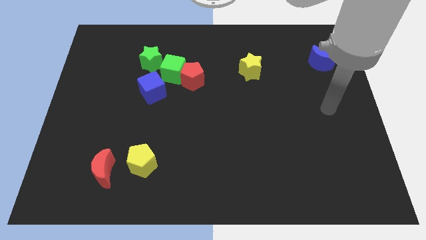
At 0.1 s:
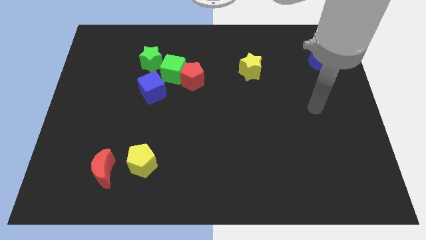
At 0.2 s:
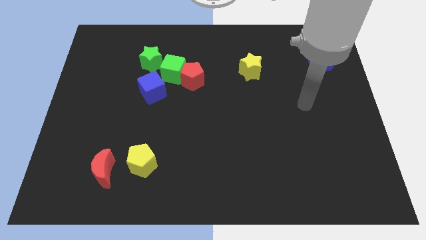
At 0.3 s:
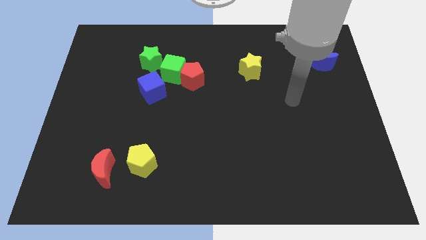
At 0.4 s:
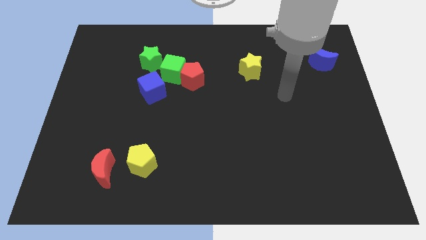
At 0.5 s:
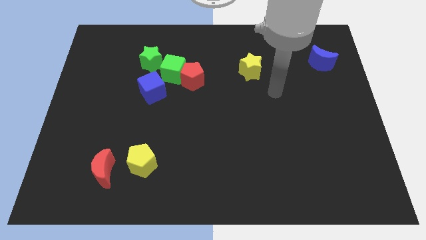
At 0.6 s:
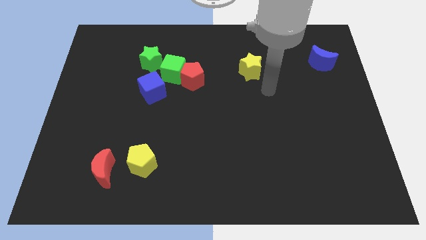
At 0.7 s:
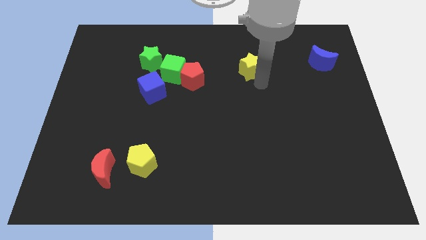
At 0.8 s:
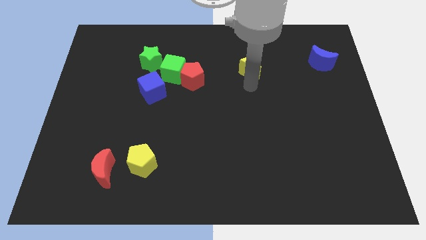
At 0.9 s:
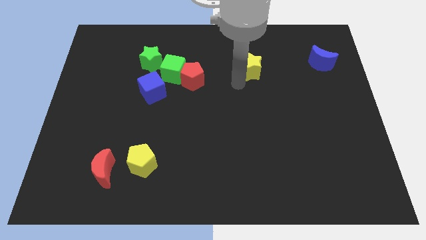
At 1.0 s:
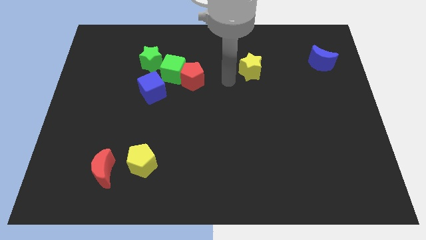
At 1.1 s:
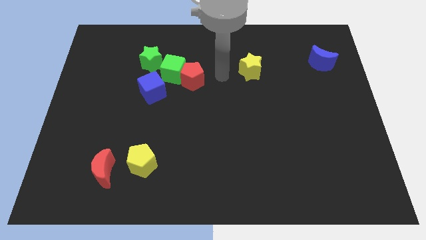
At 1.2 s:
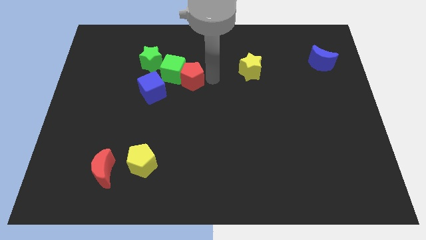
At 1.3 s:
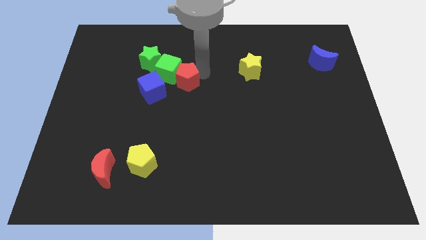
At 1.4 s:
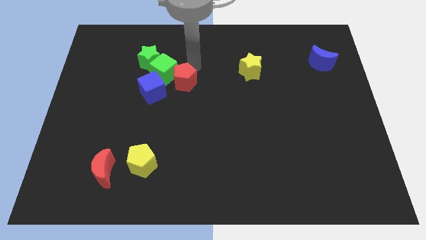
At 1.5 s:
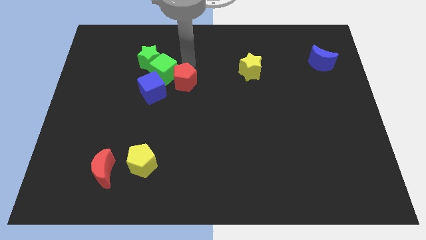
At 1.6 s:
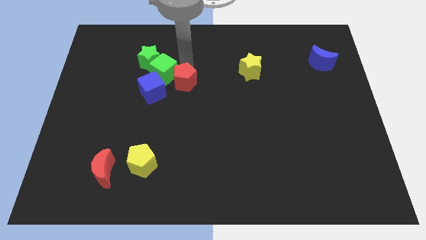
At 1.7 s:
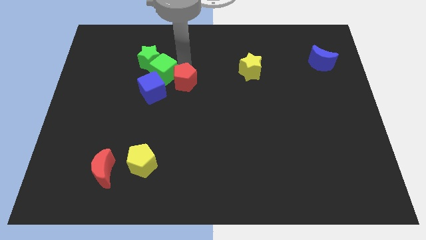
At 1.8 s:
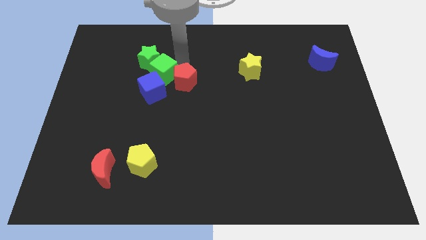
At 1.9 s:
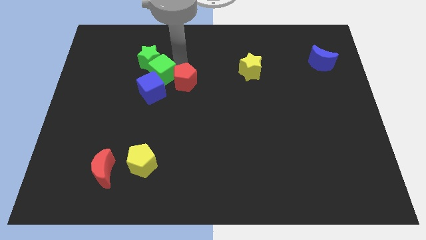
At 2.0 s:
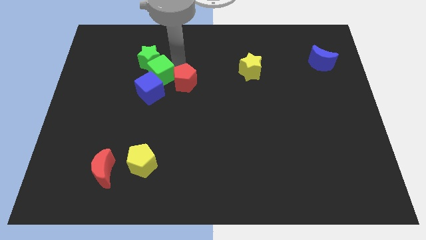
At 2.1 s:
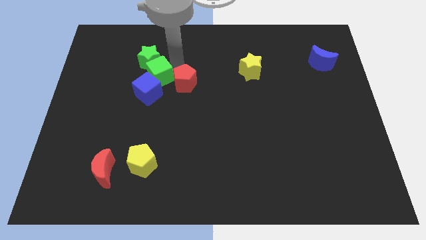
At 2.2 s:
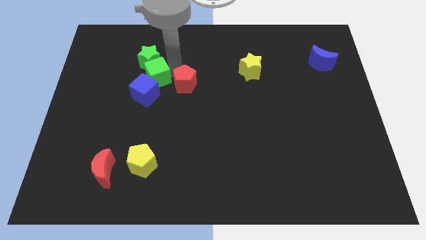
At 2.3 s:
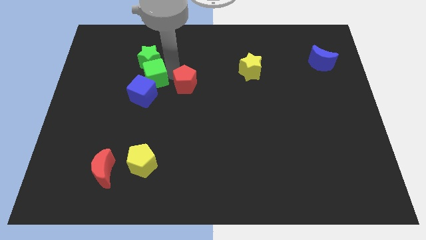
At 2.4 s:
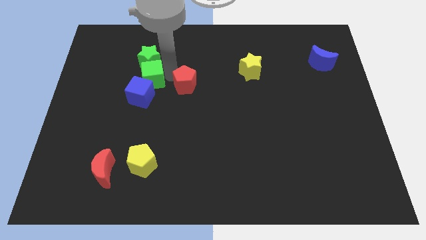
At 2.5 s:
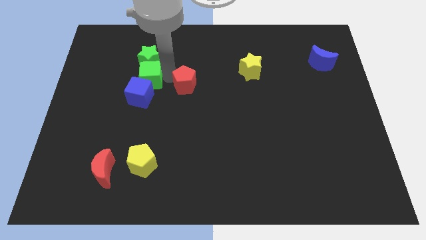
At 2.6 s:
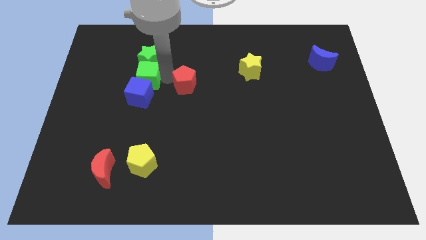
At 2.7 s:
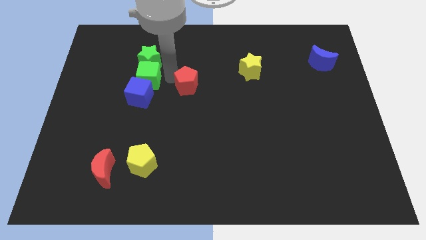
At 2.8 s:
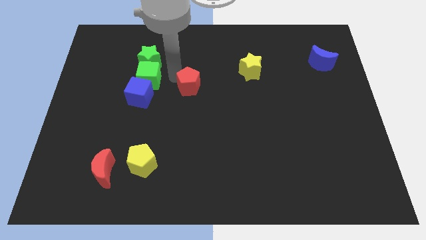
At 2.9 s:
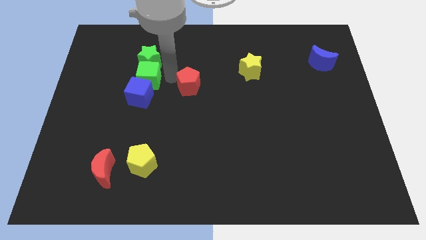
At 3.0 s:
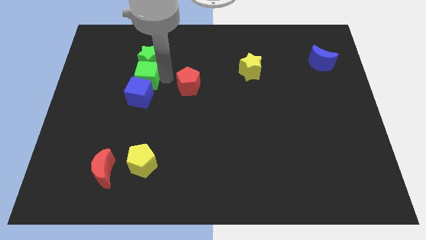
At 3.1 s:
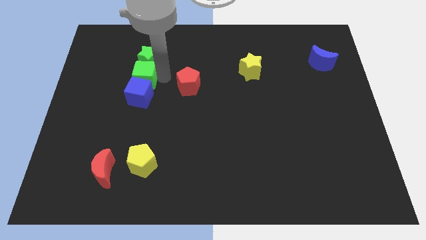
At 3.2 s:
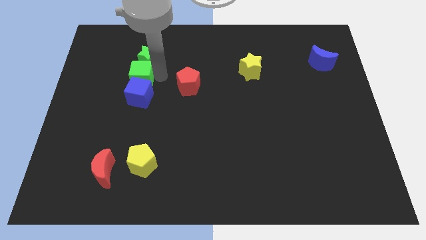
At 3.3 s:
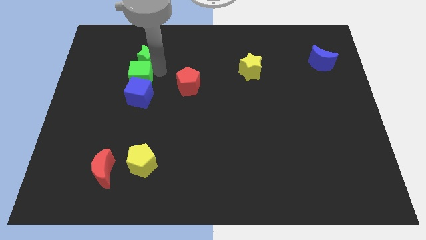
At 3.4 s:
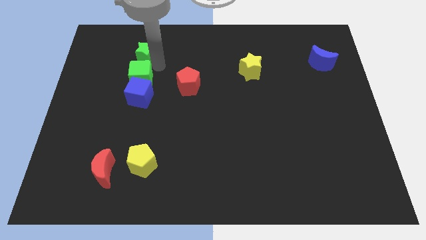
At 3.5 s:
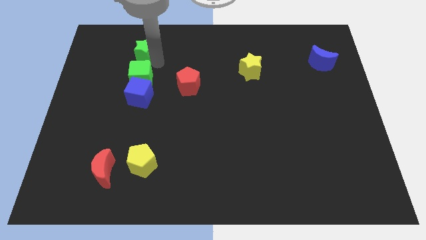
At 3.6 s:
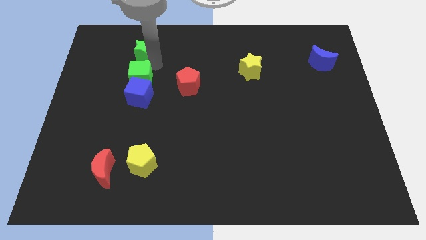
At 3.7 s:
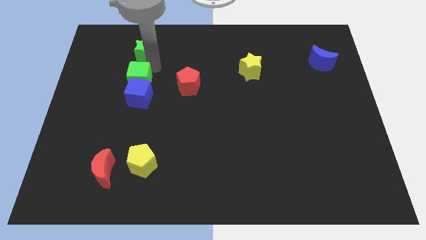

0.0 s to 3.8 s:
push the green cube a bit downwards and to the left diagonally

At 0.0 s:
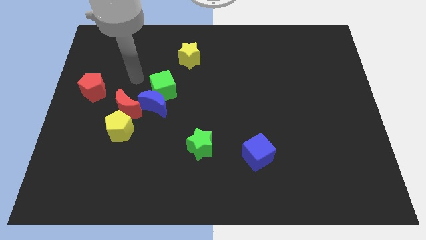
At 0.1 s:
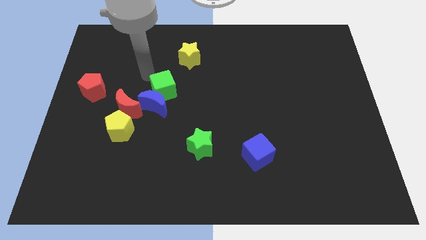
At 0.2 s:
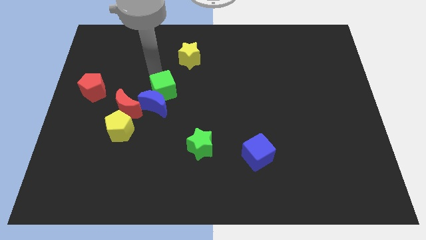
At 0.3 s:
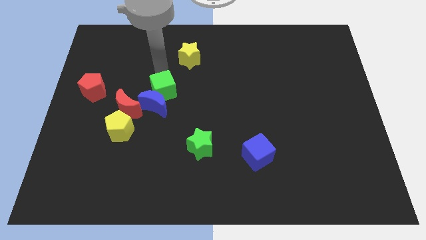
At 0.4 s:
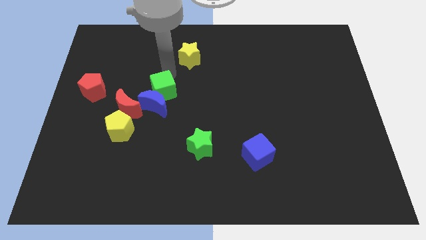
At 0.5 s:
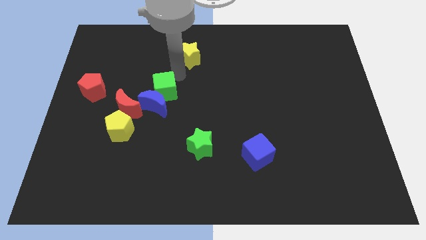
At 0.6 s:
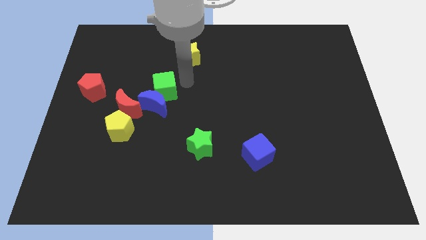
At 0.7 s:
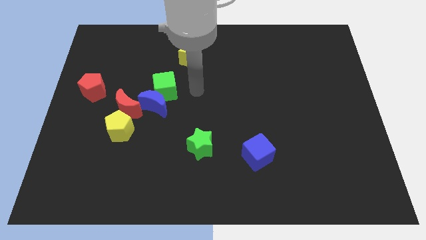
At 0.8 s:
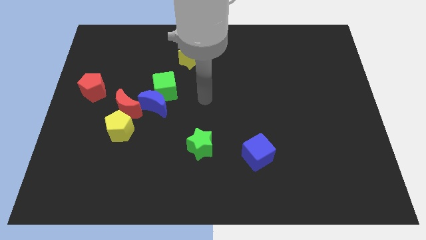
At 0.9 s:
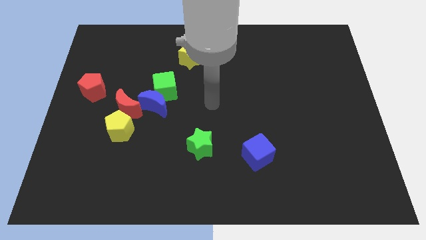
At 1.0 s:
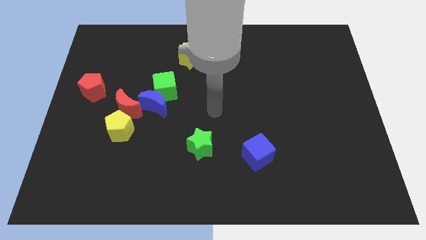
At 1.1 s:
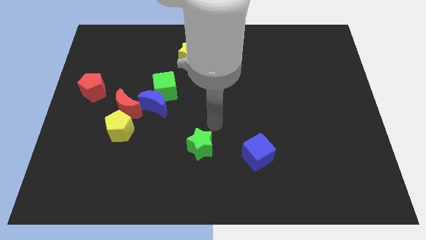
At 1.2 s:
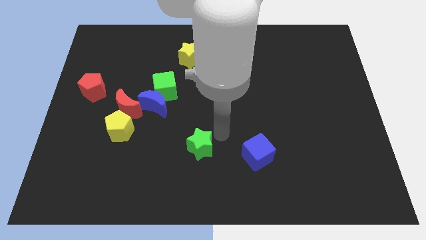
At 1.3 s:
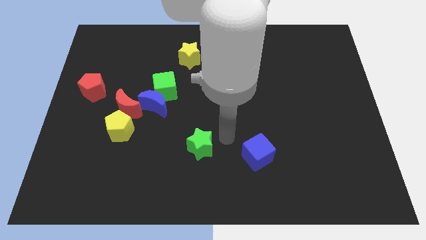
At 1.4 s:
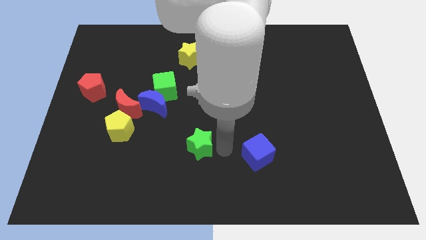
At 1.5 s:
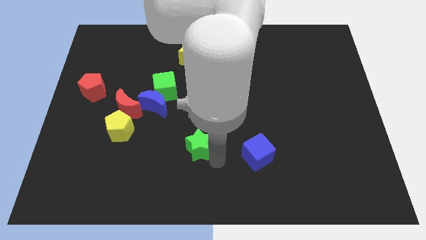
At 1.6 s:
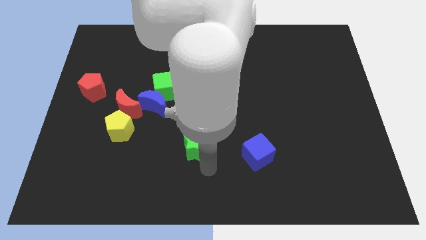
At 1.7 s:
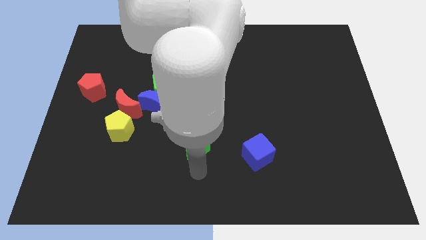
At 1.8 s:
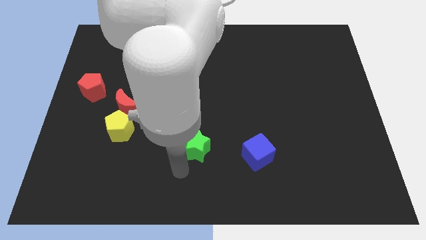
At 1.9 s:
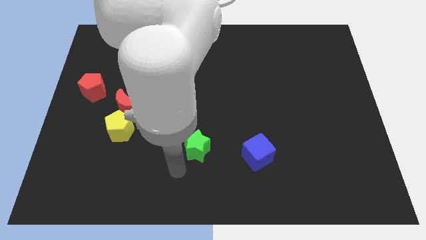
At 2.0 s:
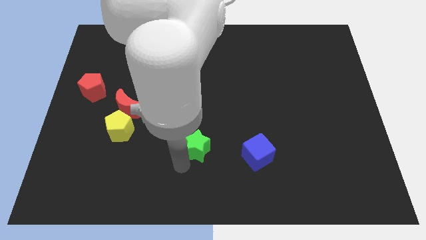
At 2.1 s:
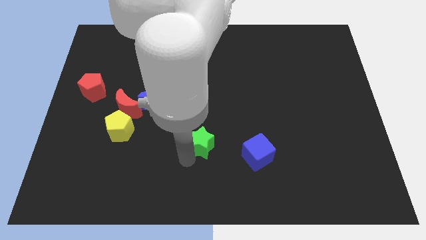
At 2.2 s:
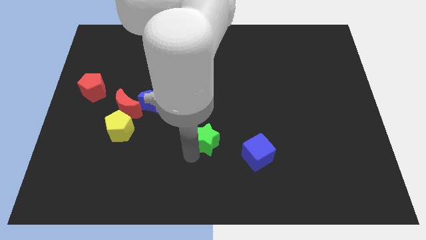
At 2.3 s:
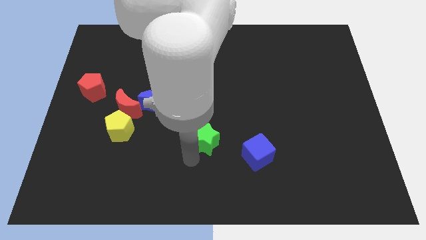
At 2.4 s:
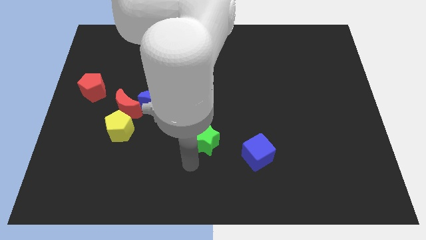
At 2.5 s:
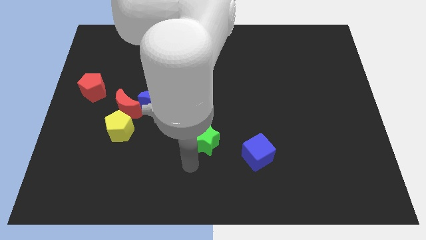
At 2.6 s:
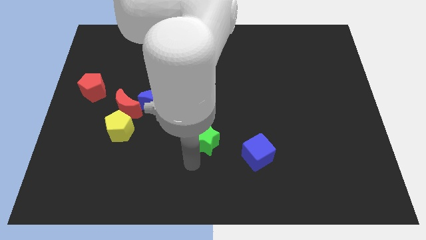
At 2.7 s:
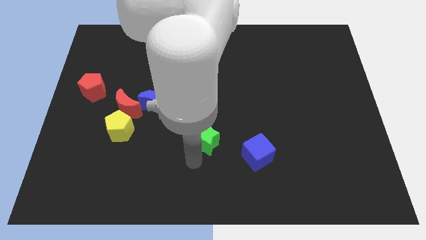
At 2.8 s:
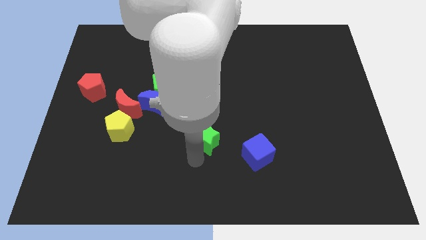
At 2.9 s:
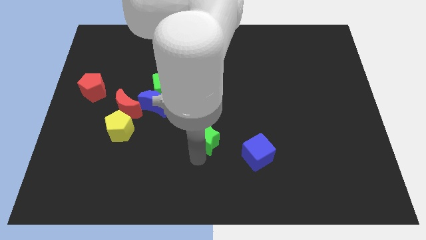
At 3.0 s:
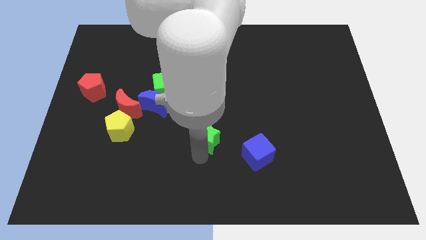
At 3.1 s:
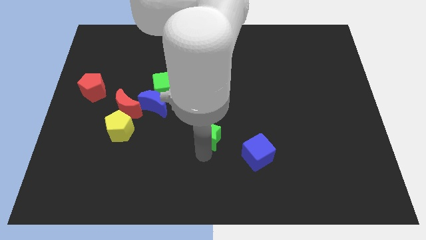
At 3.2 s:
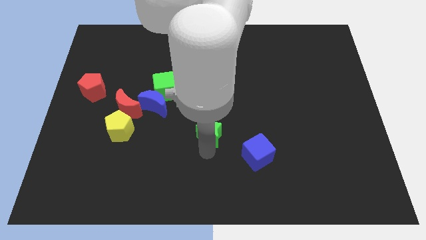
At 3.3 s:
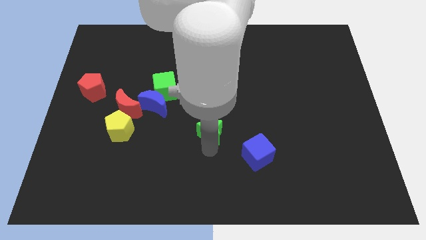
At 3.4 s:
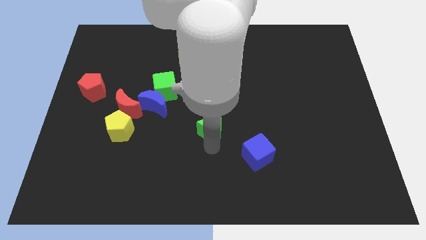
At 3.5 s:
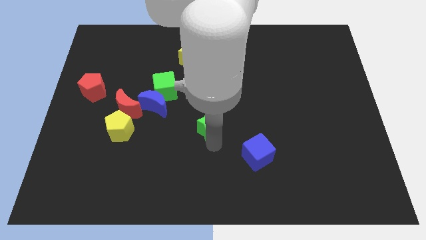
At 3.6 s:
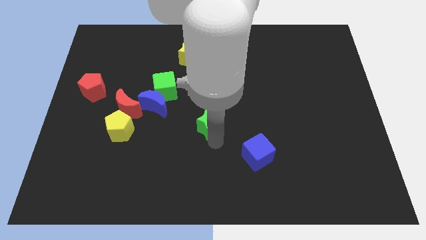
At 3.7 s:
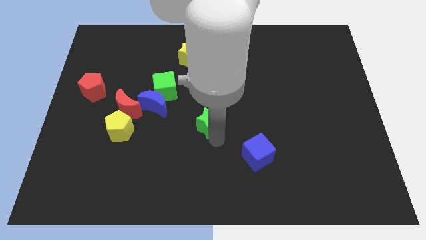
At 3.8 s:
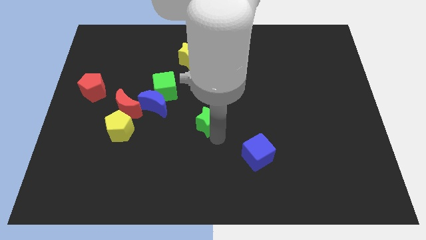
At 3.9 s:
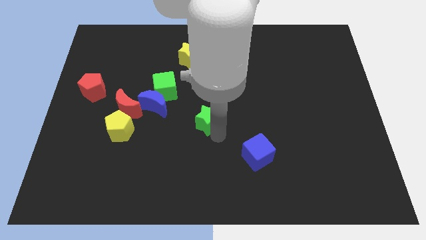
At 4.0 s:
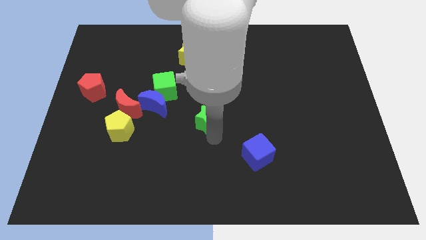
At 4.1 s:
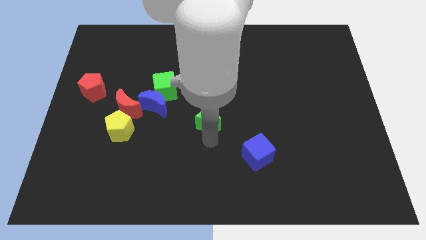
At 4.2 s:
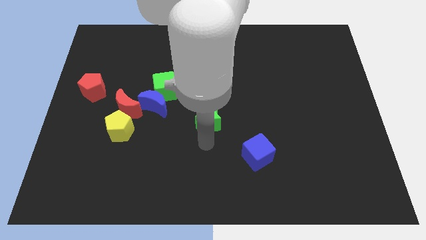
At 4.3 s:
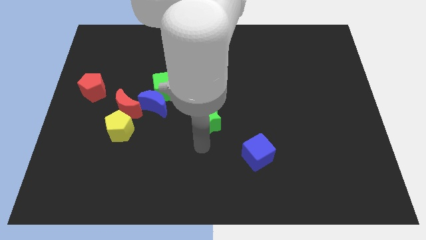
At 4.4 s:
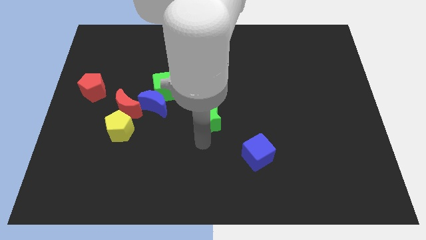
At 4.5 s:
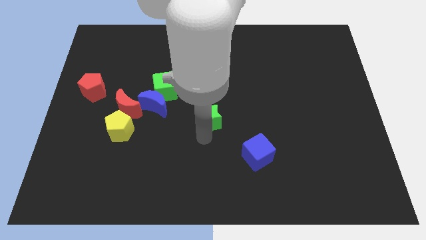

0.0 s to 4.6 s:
slightly push the green star upwards
